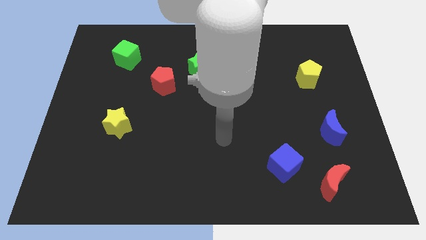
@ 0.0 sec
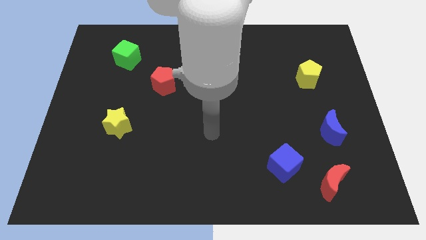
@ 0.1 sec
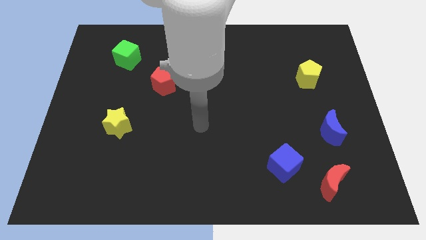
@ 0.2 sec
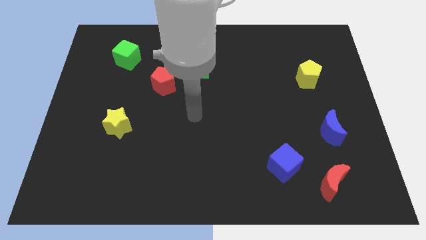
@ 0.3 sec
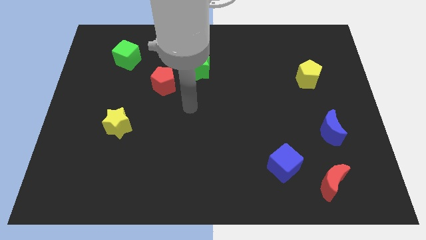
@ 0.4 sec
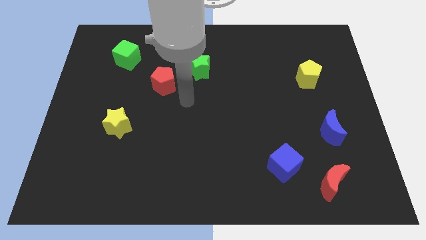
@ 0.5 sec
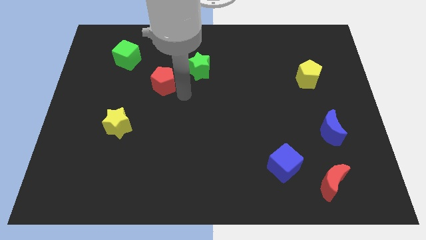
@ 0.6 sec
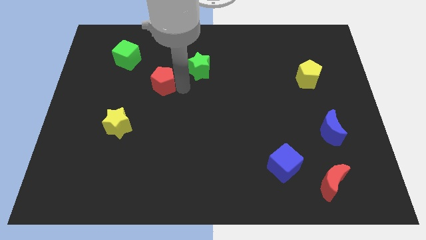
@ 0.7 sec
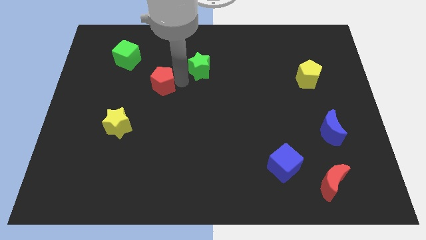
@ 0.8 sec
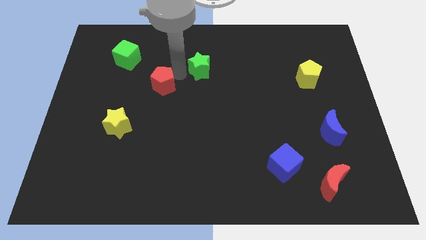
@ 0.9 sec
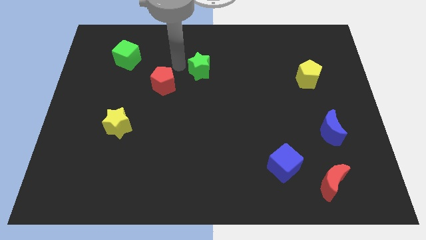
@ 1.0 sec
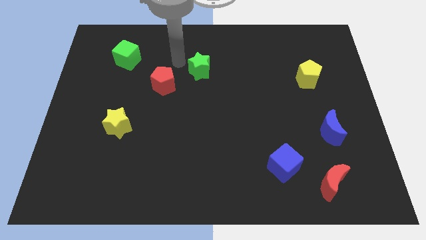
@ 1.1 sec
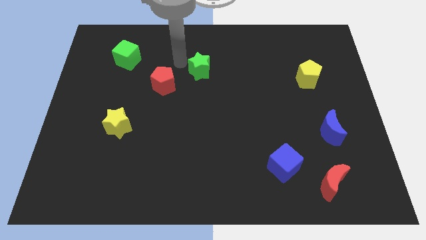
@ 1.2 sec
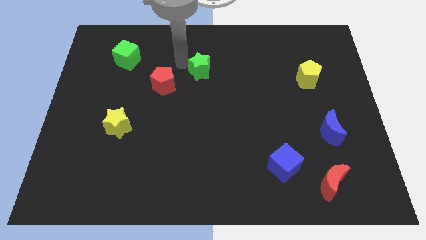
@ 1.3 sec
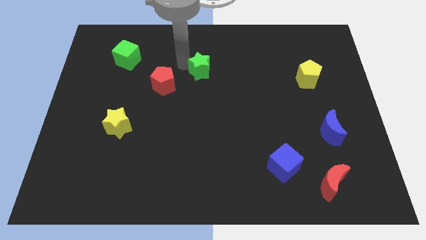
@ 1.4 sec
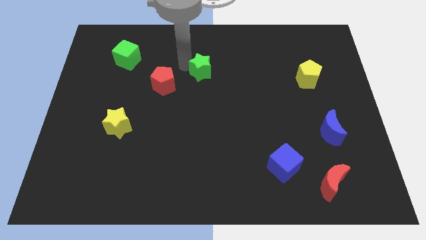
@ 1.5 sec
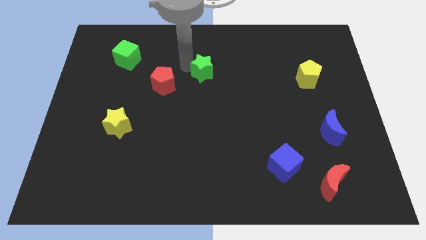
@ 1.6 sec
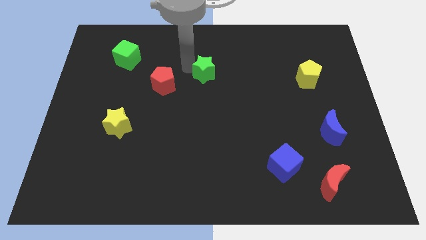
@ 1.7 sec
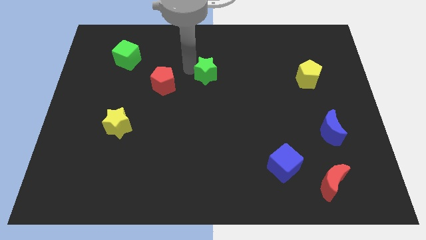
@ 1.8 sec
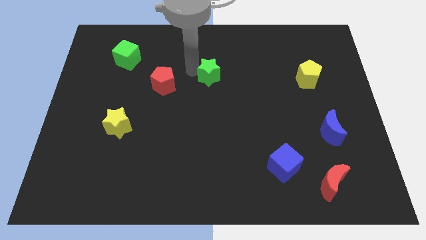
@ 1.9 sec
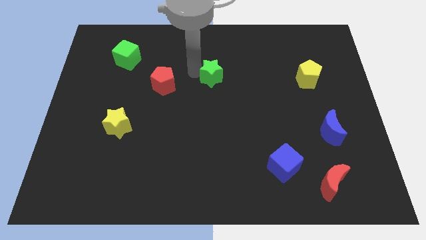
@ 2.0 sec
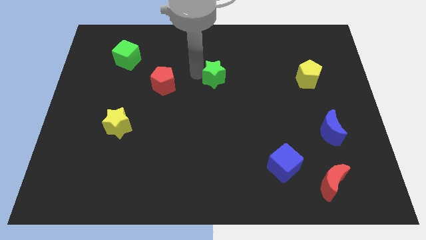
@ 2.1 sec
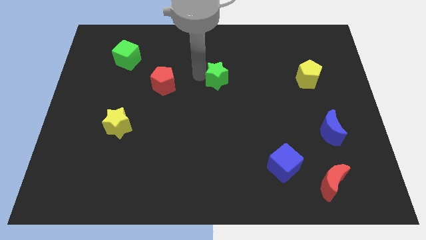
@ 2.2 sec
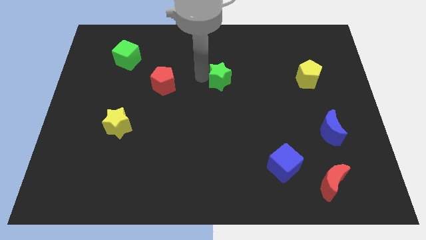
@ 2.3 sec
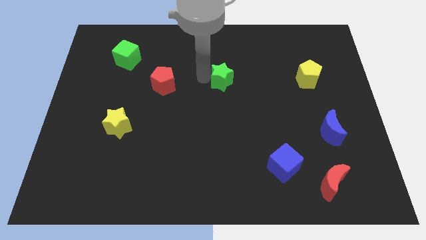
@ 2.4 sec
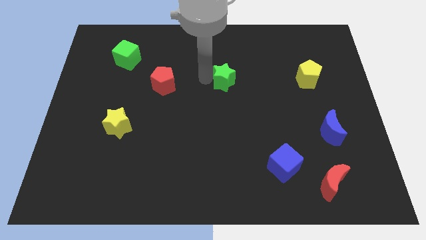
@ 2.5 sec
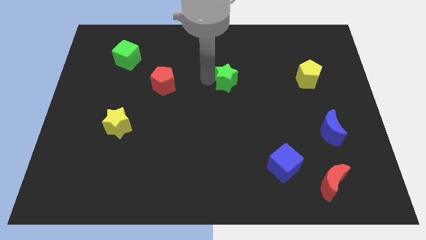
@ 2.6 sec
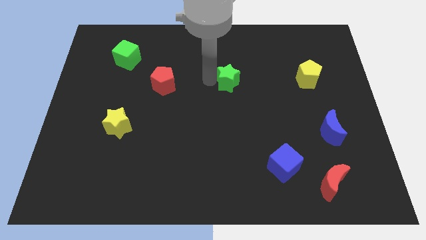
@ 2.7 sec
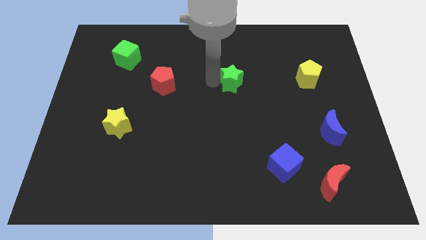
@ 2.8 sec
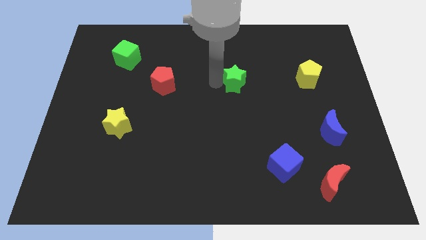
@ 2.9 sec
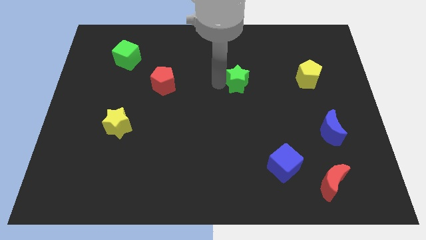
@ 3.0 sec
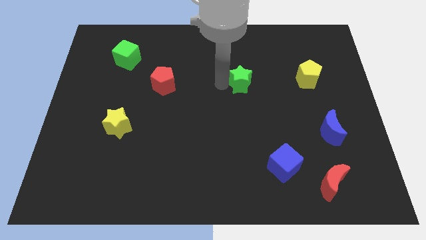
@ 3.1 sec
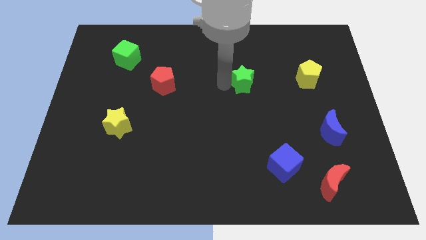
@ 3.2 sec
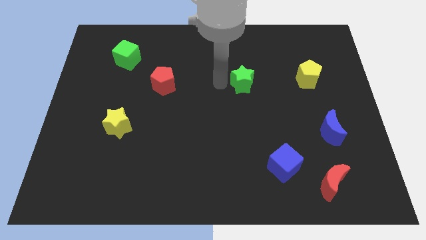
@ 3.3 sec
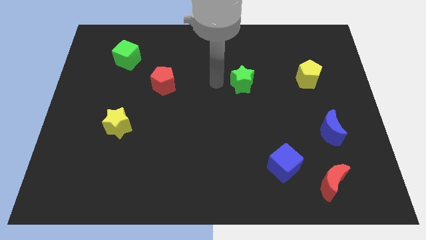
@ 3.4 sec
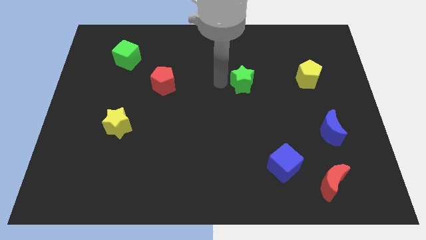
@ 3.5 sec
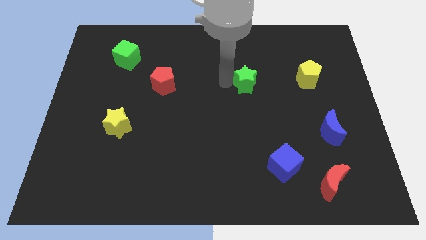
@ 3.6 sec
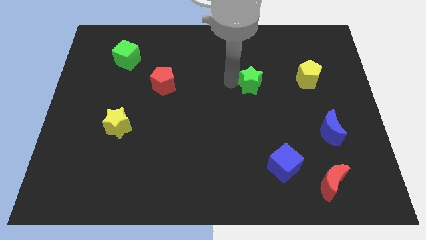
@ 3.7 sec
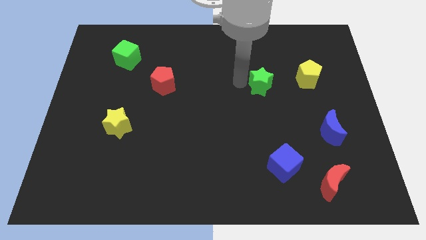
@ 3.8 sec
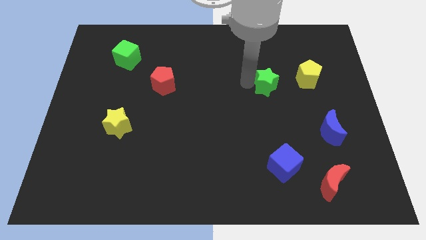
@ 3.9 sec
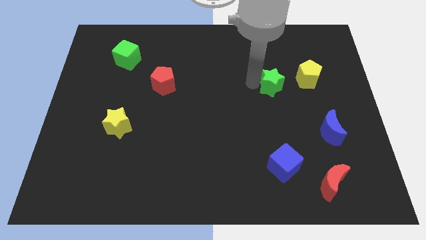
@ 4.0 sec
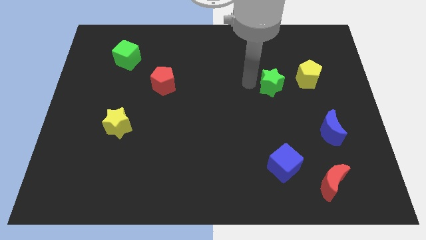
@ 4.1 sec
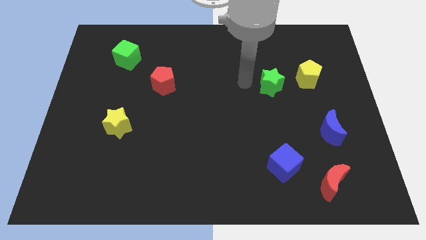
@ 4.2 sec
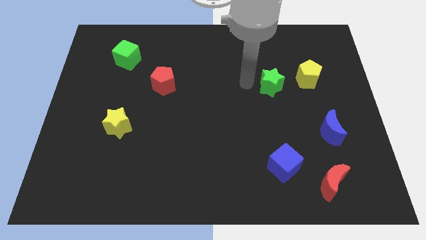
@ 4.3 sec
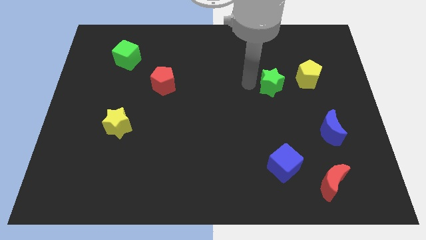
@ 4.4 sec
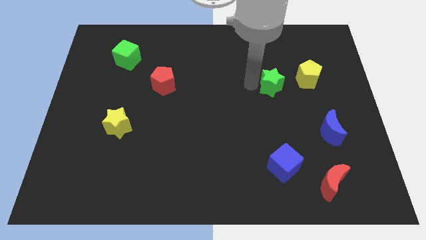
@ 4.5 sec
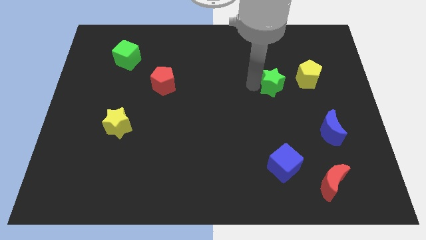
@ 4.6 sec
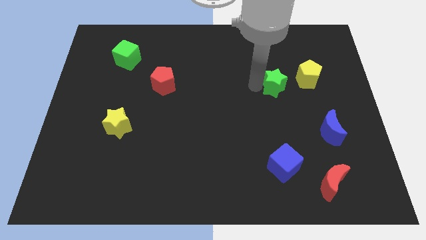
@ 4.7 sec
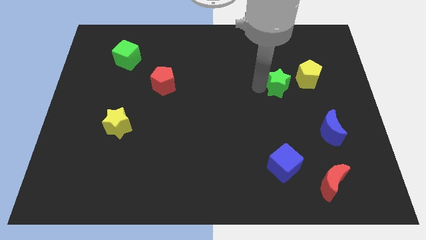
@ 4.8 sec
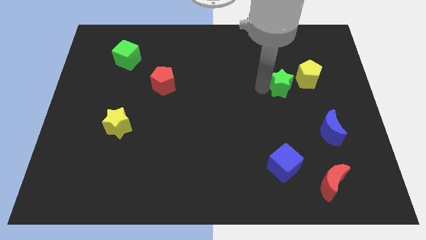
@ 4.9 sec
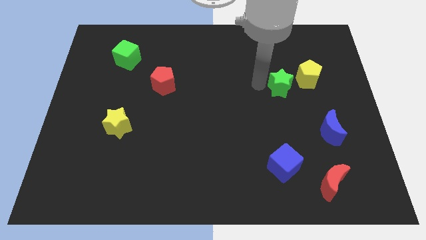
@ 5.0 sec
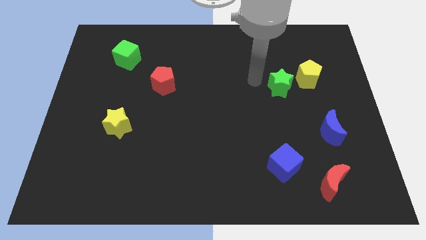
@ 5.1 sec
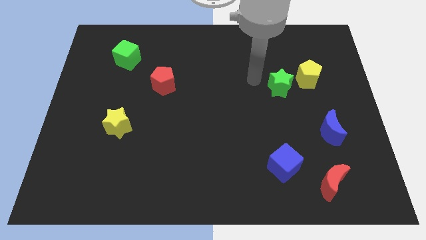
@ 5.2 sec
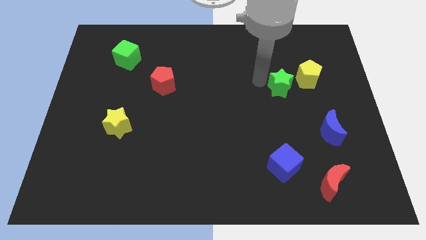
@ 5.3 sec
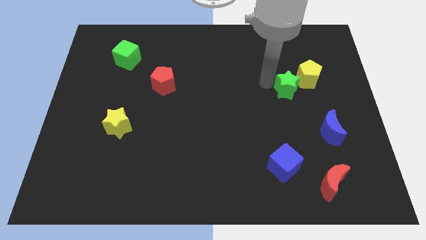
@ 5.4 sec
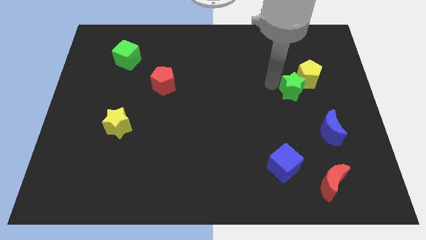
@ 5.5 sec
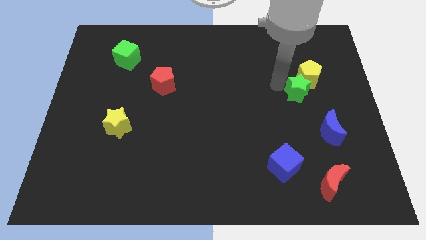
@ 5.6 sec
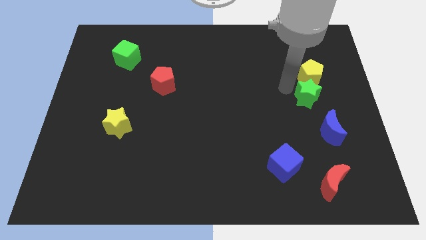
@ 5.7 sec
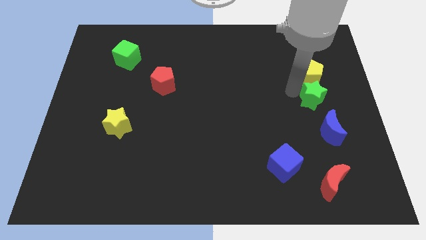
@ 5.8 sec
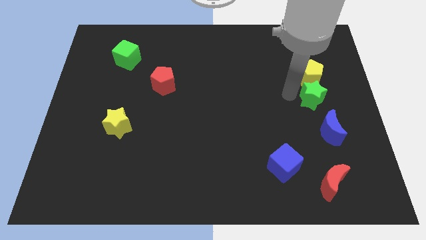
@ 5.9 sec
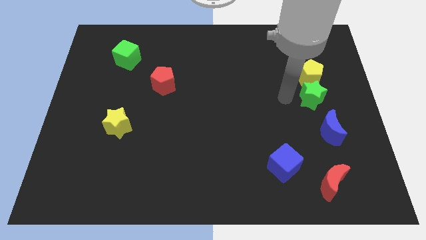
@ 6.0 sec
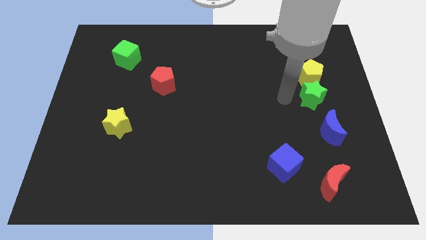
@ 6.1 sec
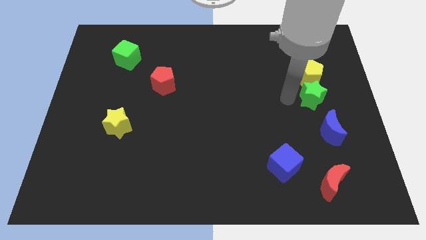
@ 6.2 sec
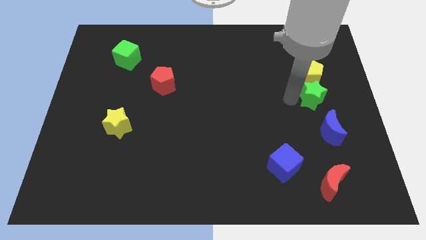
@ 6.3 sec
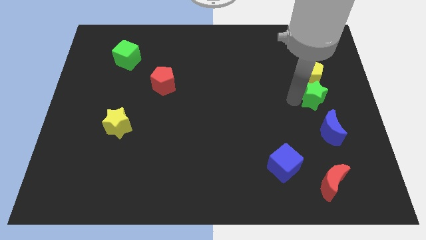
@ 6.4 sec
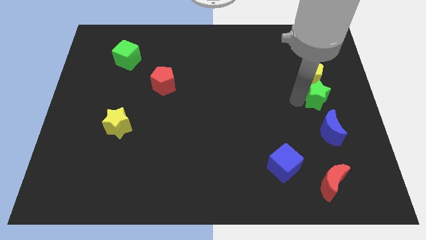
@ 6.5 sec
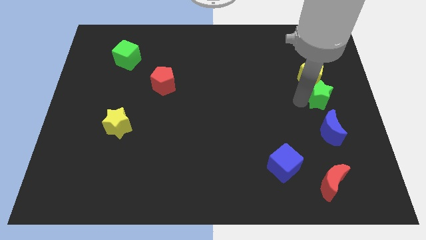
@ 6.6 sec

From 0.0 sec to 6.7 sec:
slide the green star to the right side

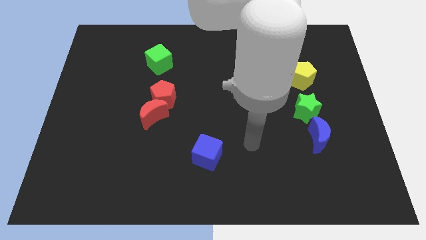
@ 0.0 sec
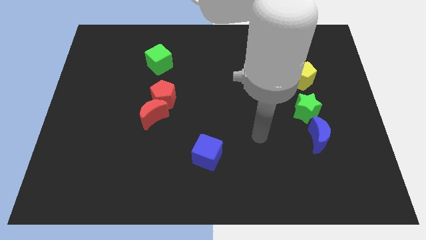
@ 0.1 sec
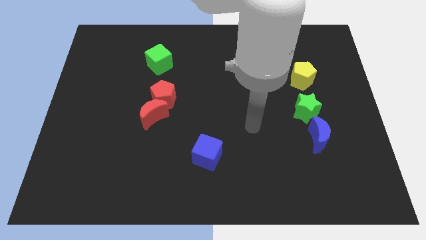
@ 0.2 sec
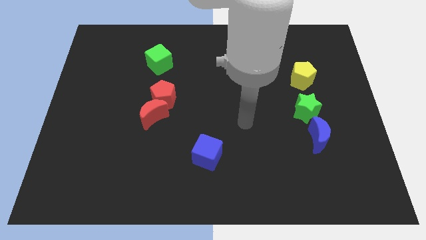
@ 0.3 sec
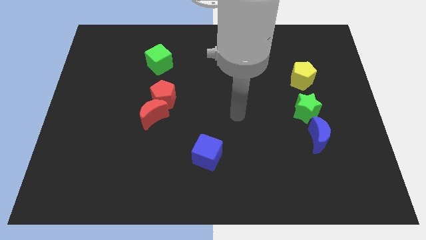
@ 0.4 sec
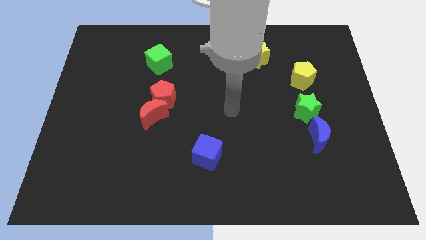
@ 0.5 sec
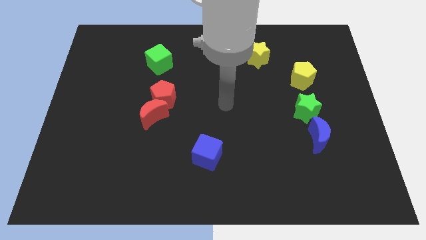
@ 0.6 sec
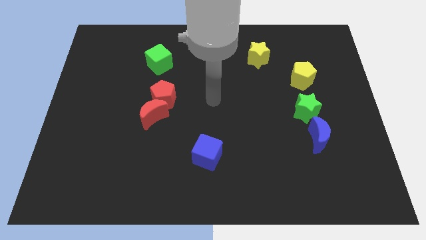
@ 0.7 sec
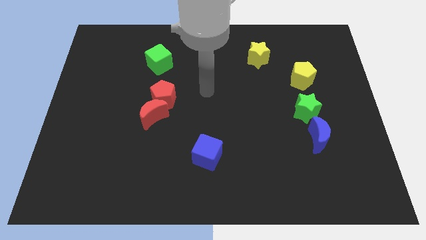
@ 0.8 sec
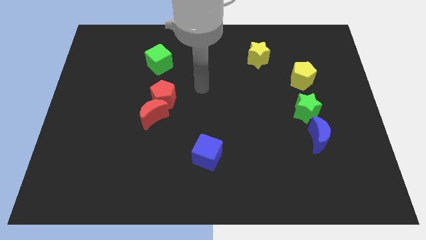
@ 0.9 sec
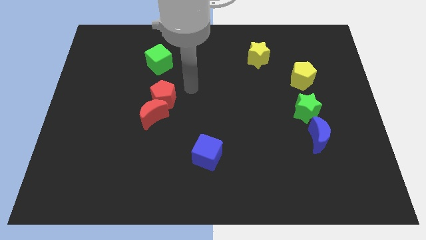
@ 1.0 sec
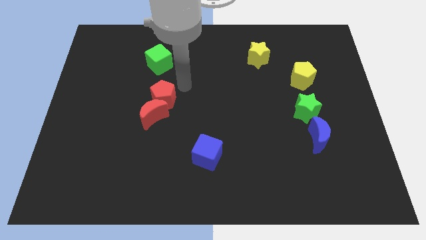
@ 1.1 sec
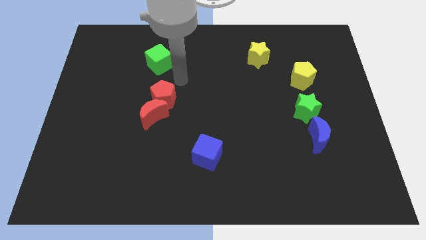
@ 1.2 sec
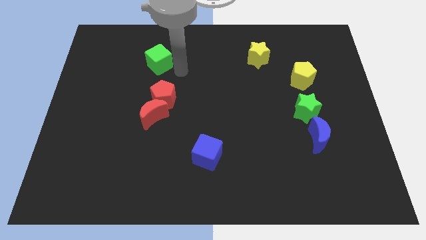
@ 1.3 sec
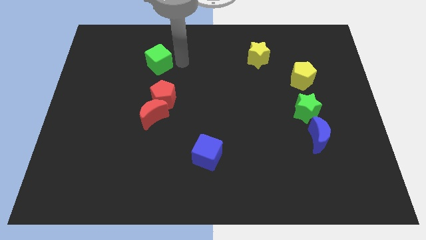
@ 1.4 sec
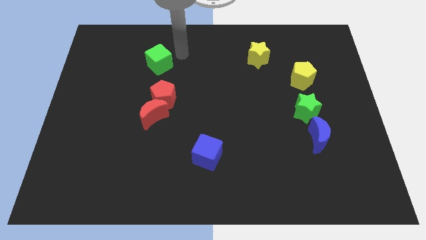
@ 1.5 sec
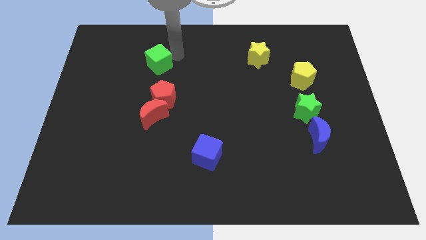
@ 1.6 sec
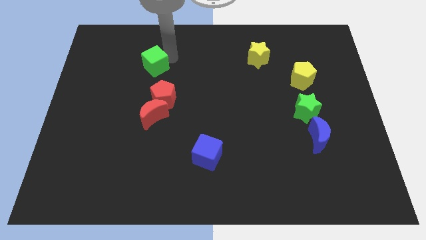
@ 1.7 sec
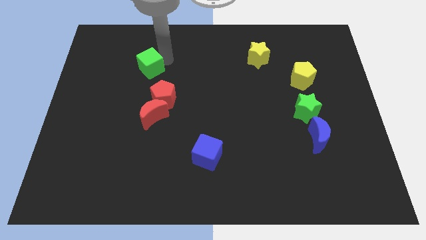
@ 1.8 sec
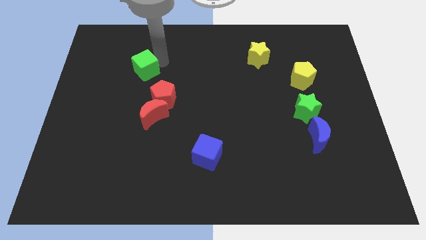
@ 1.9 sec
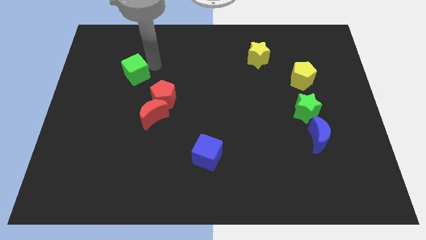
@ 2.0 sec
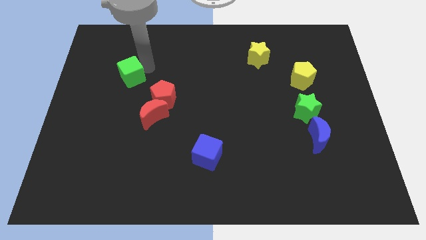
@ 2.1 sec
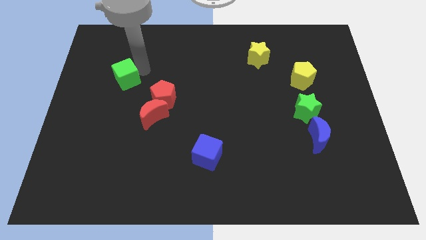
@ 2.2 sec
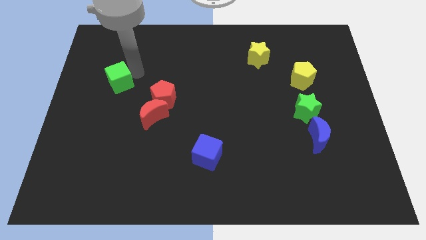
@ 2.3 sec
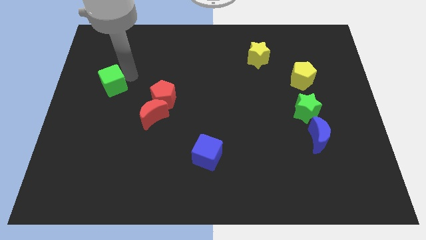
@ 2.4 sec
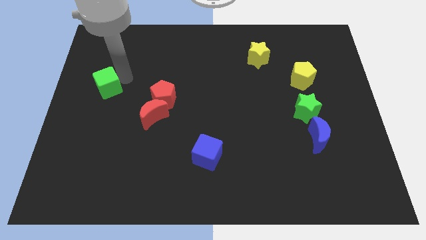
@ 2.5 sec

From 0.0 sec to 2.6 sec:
push the green cube to the center left
